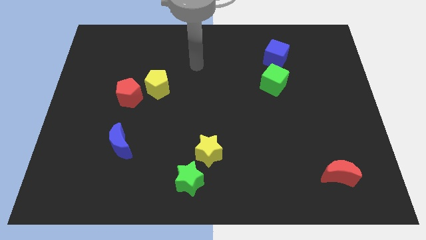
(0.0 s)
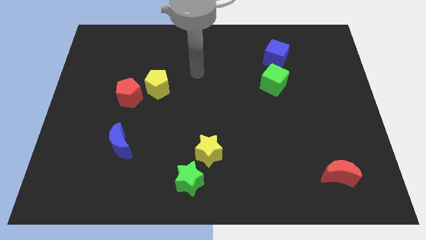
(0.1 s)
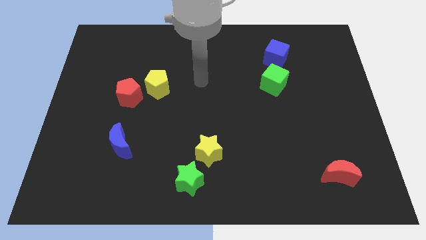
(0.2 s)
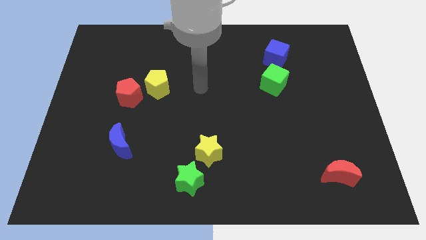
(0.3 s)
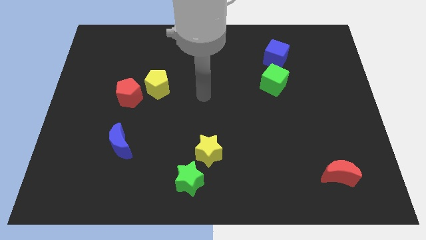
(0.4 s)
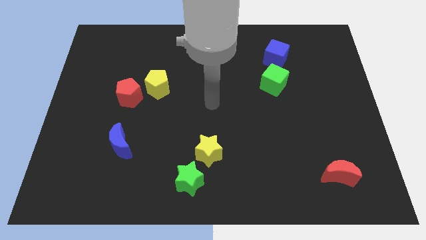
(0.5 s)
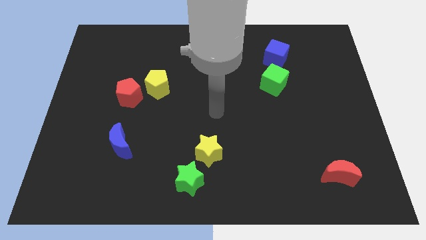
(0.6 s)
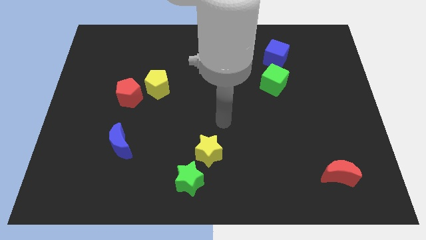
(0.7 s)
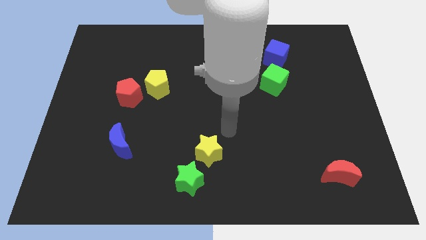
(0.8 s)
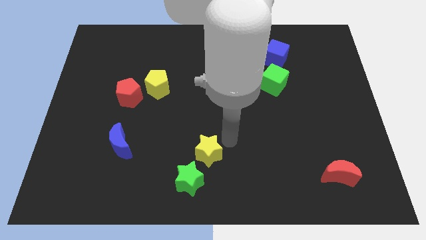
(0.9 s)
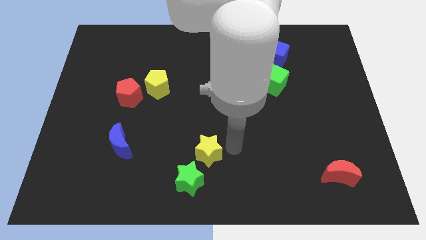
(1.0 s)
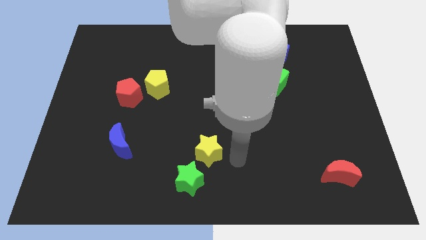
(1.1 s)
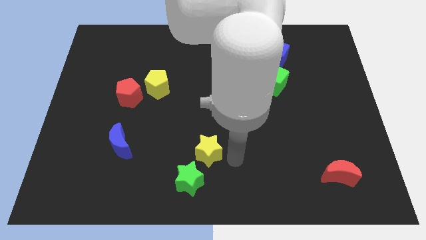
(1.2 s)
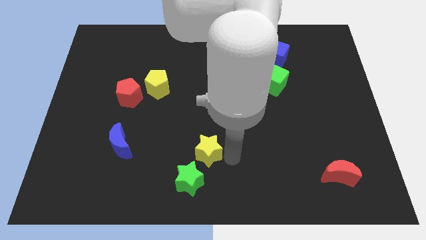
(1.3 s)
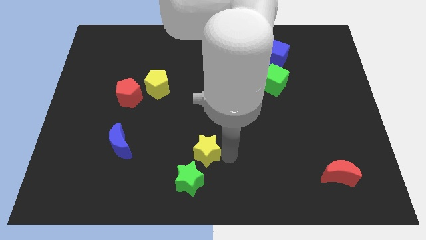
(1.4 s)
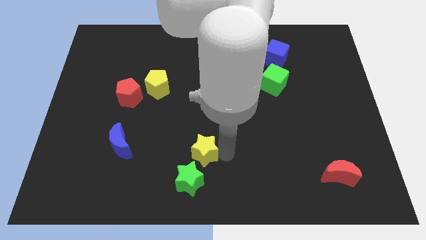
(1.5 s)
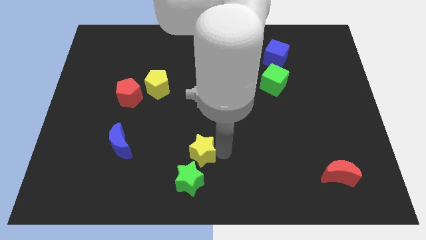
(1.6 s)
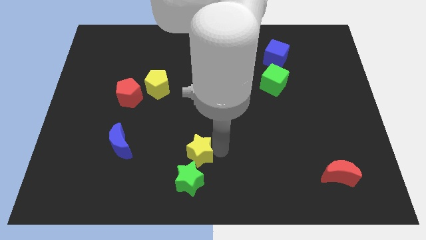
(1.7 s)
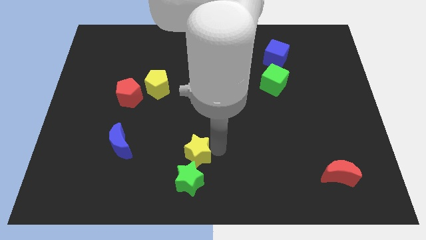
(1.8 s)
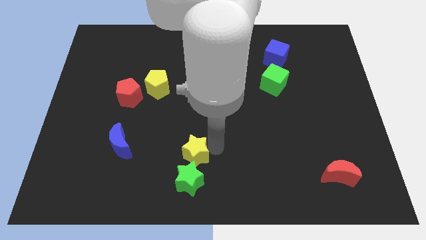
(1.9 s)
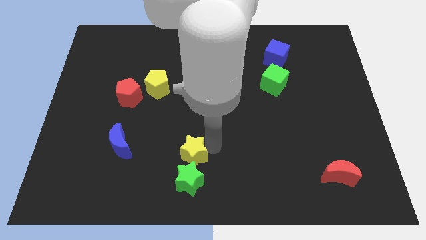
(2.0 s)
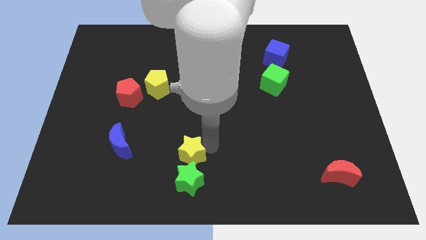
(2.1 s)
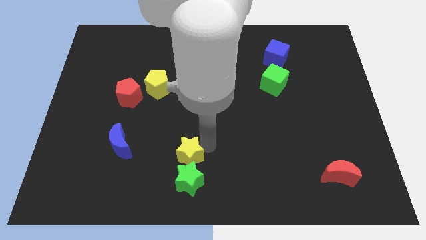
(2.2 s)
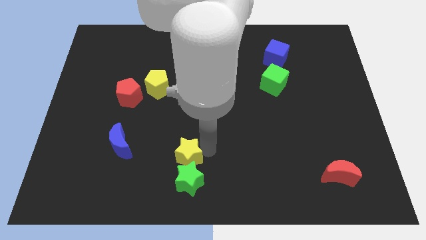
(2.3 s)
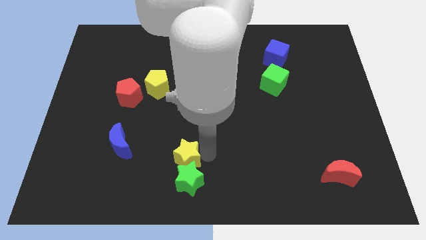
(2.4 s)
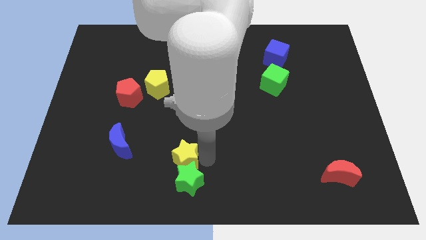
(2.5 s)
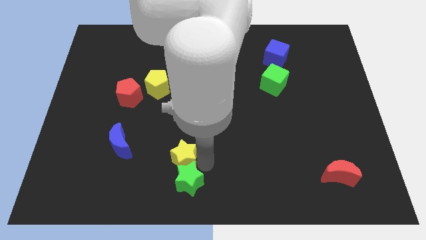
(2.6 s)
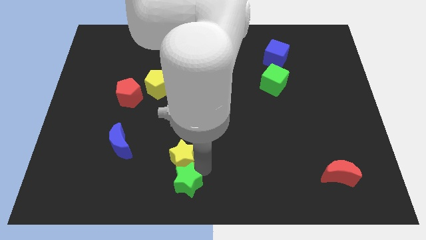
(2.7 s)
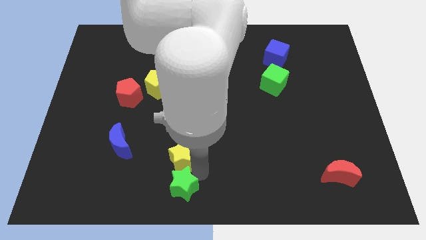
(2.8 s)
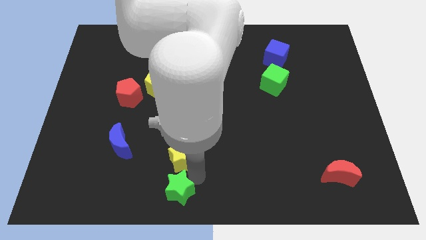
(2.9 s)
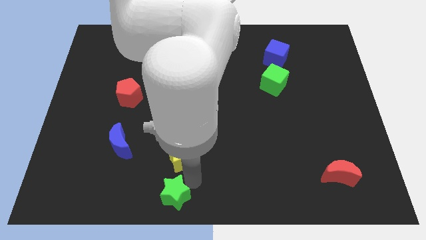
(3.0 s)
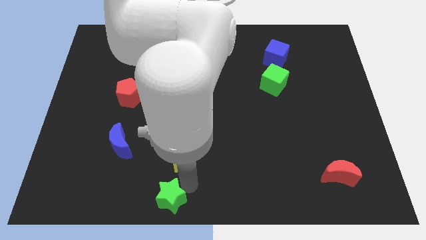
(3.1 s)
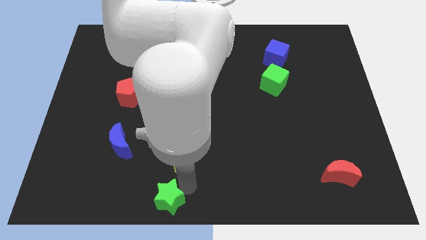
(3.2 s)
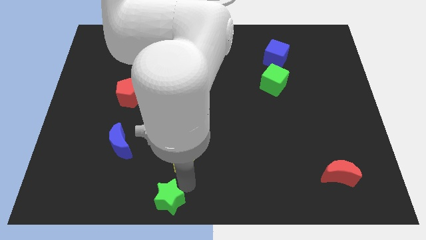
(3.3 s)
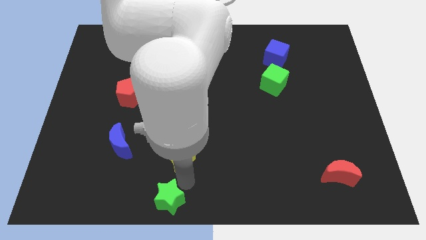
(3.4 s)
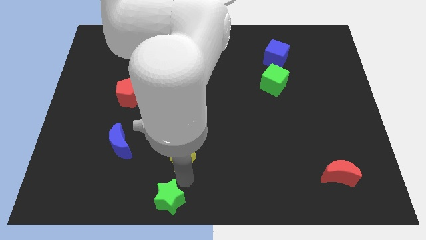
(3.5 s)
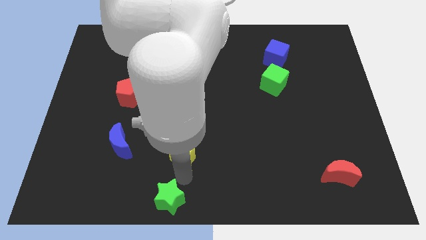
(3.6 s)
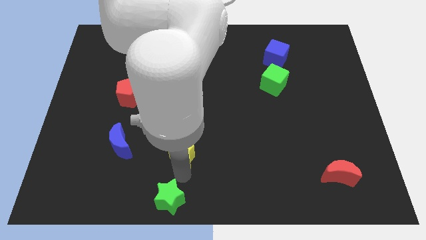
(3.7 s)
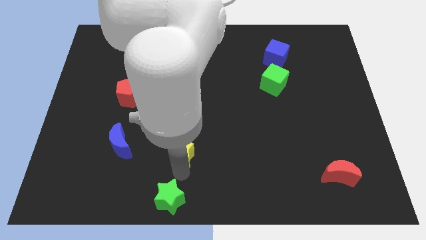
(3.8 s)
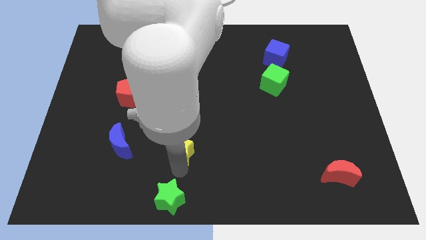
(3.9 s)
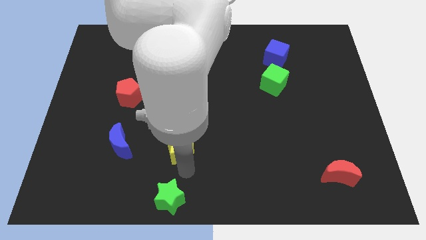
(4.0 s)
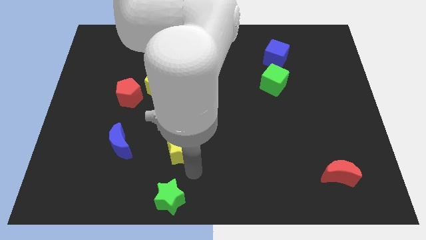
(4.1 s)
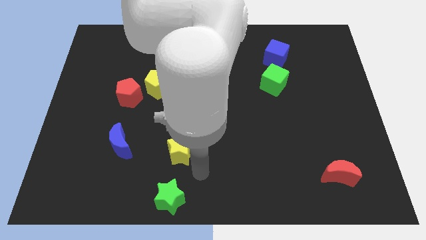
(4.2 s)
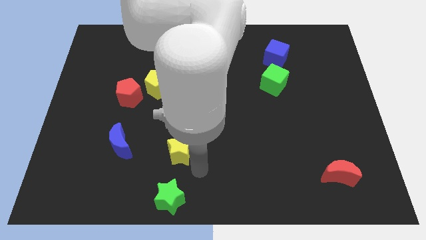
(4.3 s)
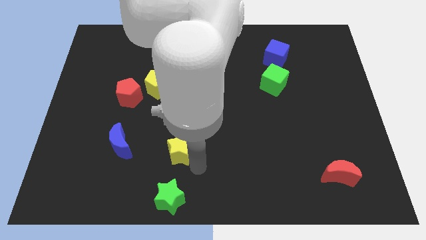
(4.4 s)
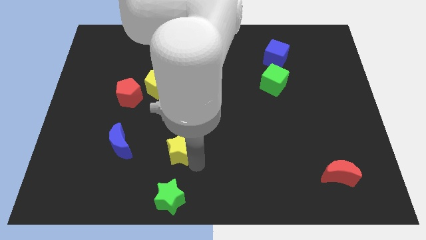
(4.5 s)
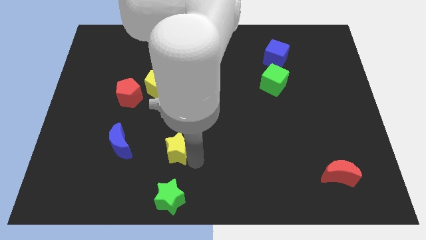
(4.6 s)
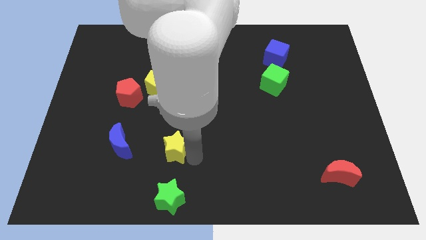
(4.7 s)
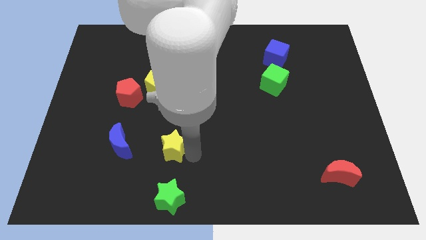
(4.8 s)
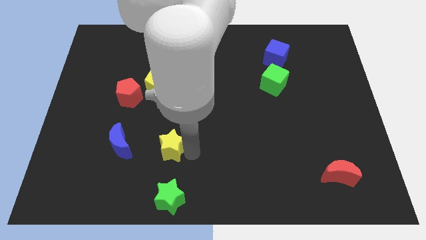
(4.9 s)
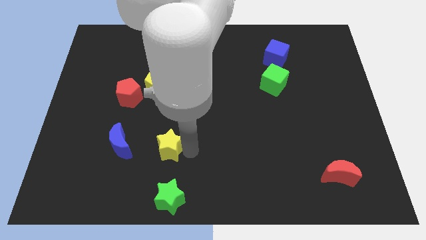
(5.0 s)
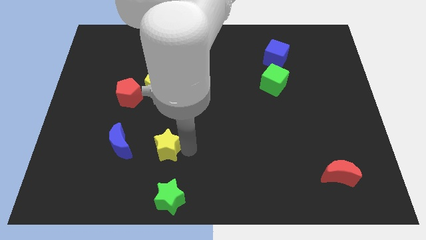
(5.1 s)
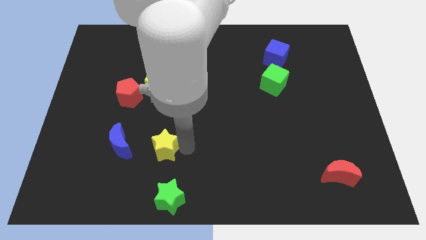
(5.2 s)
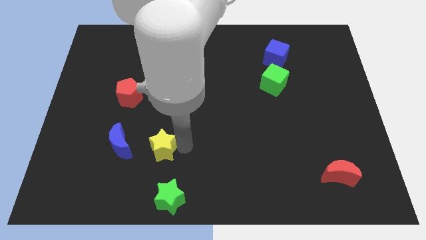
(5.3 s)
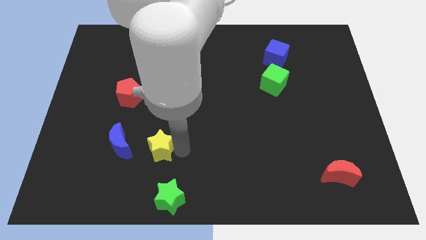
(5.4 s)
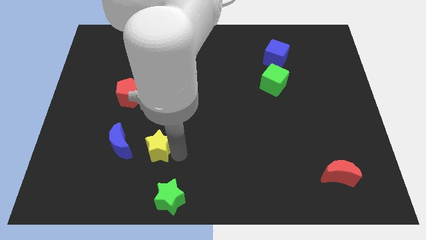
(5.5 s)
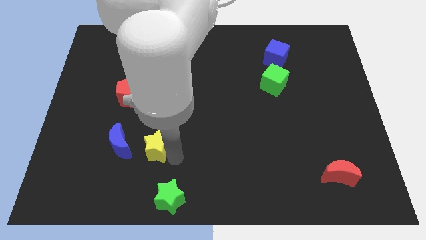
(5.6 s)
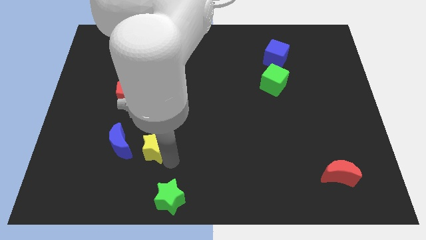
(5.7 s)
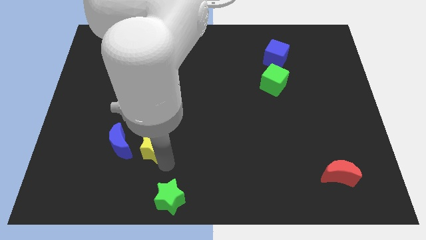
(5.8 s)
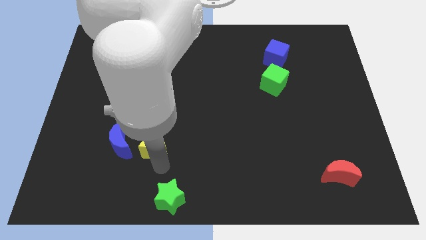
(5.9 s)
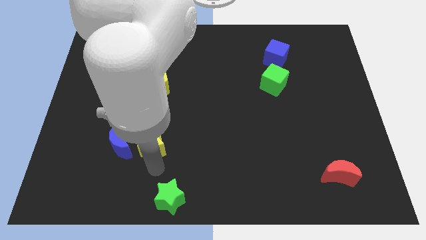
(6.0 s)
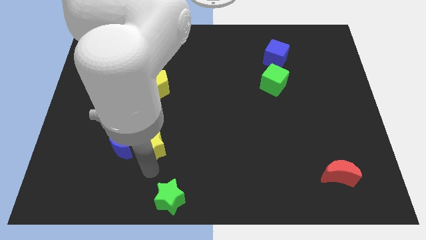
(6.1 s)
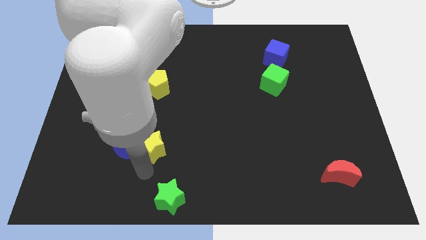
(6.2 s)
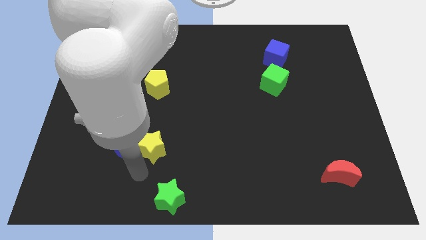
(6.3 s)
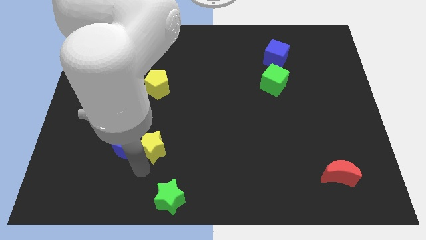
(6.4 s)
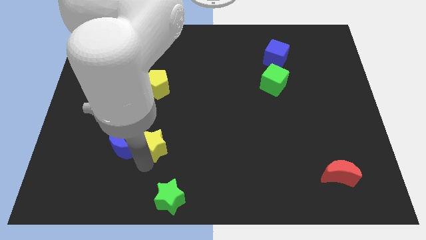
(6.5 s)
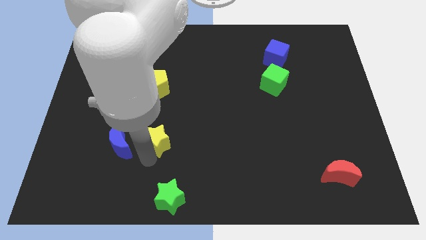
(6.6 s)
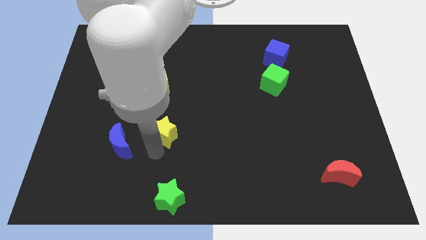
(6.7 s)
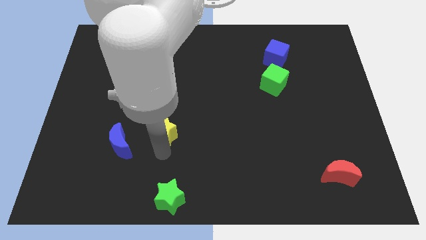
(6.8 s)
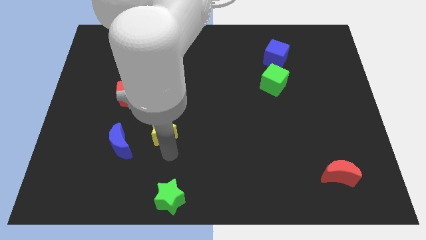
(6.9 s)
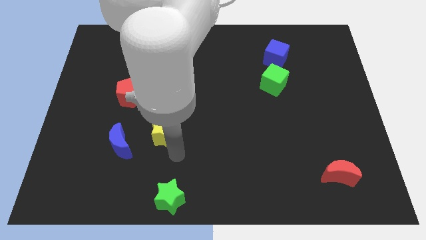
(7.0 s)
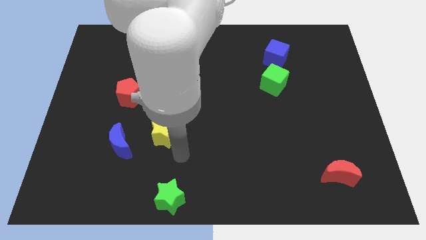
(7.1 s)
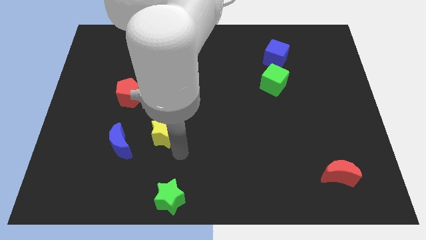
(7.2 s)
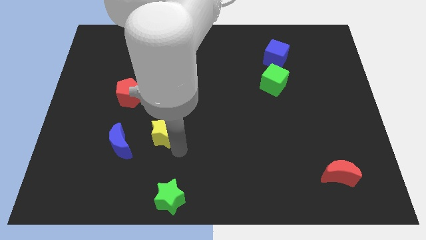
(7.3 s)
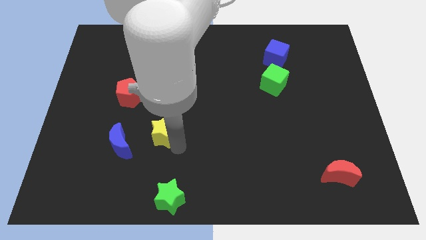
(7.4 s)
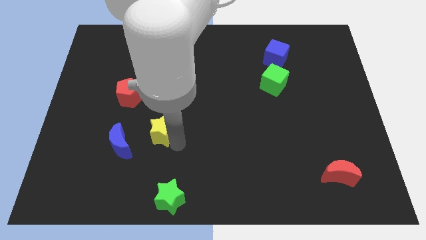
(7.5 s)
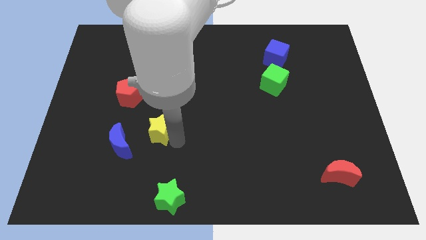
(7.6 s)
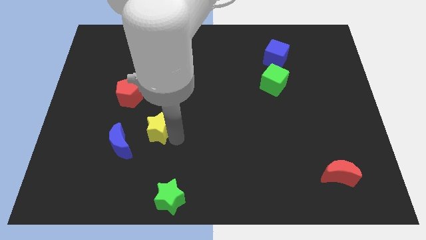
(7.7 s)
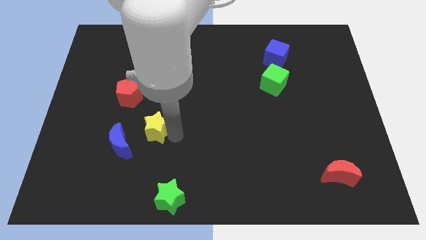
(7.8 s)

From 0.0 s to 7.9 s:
slide the yellow star diagonally down and to the right of the red pentagon
